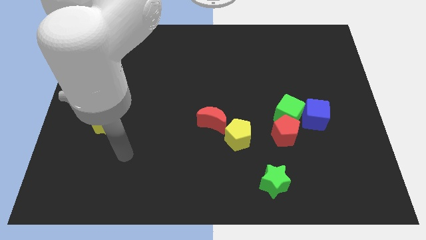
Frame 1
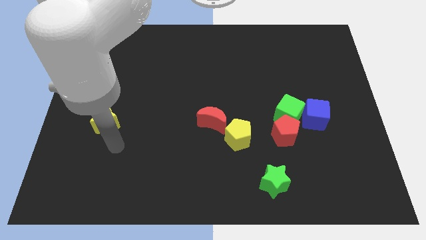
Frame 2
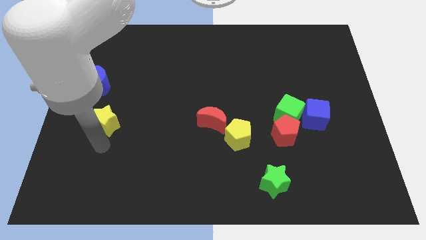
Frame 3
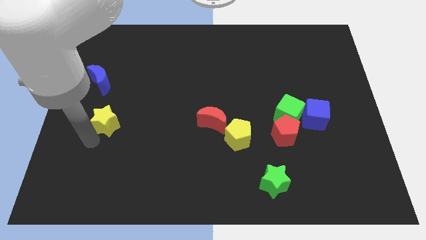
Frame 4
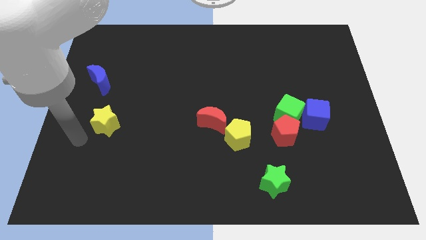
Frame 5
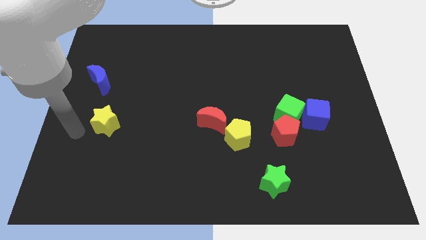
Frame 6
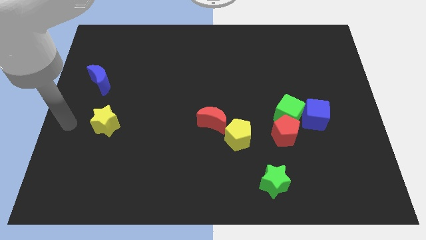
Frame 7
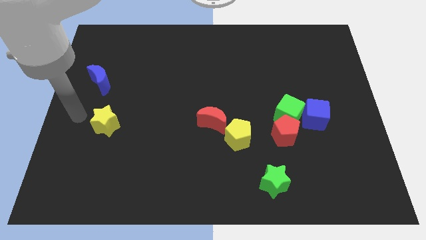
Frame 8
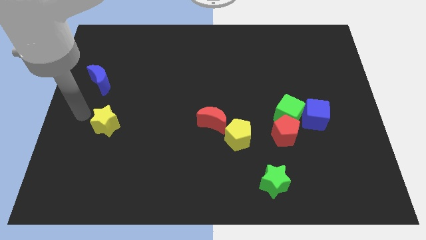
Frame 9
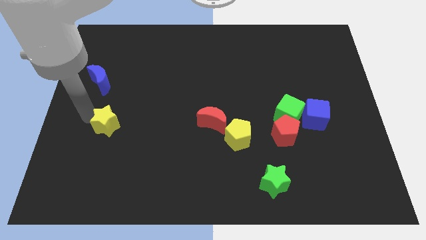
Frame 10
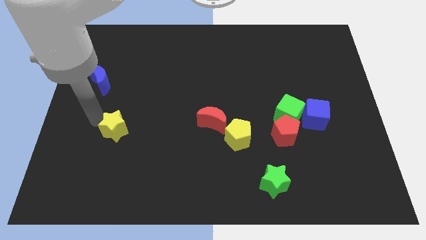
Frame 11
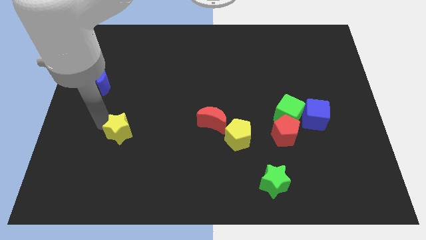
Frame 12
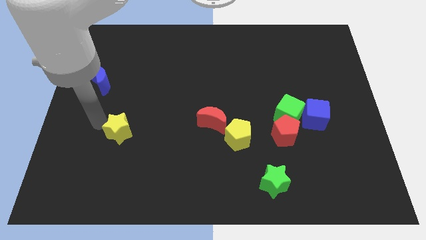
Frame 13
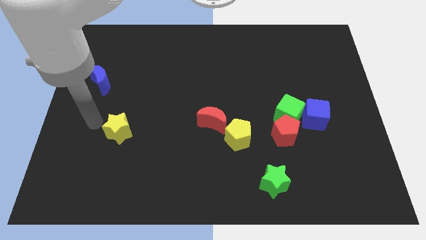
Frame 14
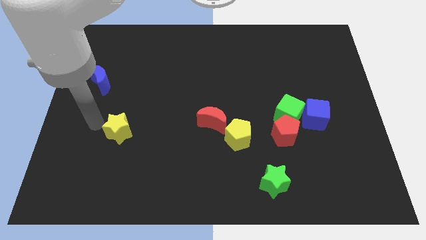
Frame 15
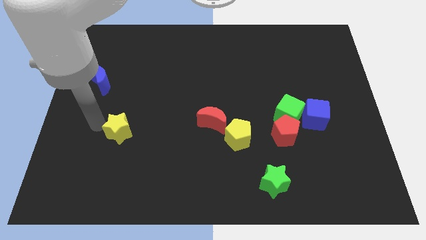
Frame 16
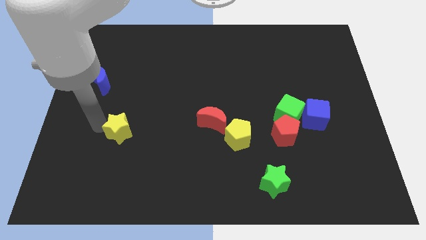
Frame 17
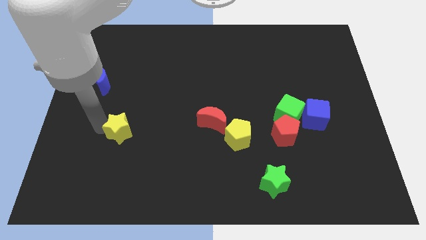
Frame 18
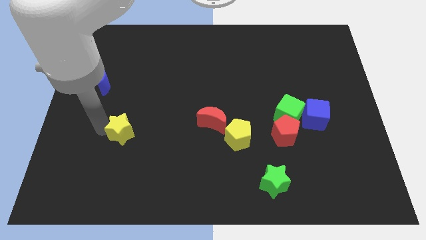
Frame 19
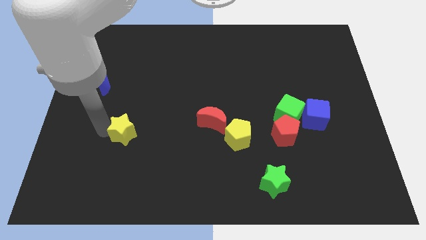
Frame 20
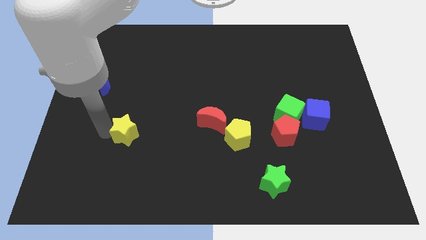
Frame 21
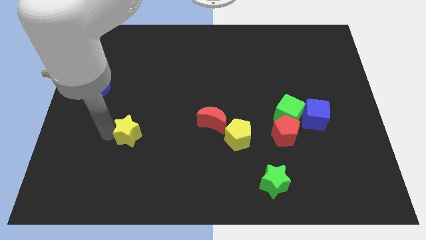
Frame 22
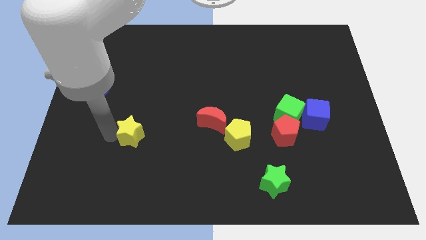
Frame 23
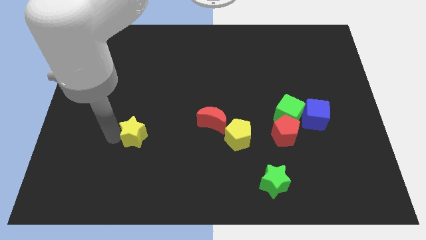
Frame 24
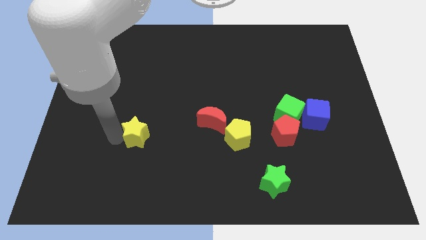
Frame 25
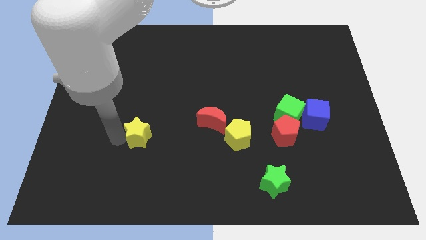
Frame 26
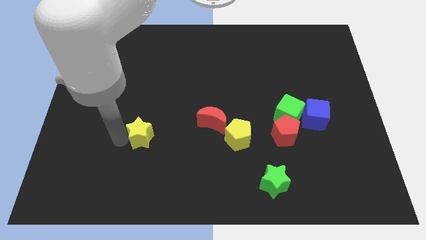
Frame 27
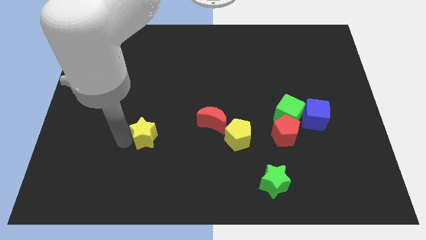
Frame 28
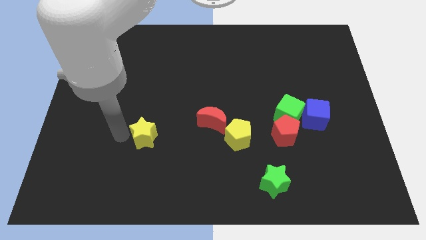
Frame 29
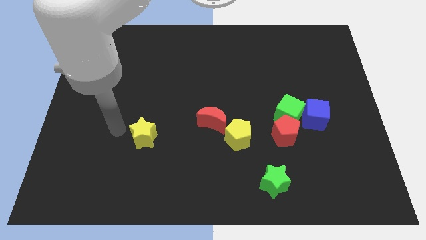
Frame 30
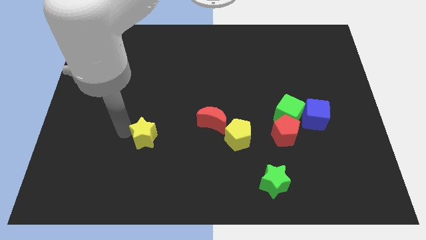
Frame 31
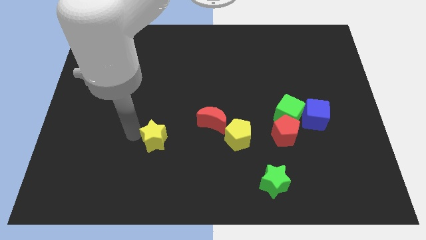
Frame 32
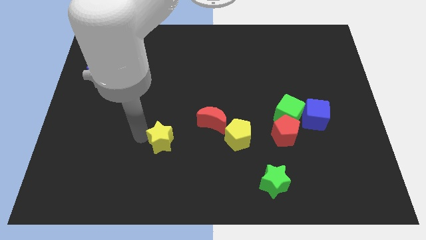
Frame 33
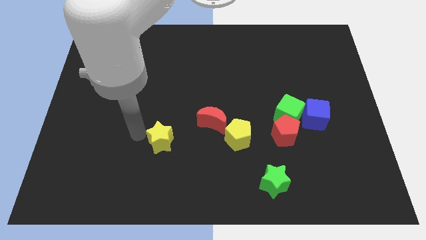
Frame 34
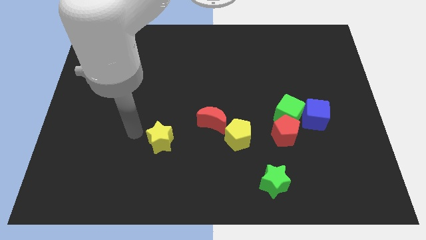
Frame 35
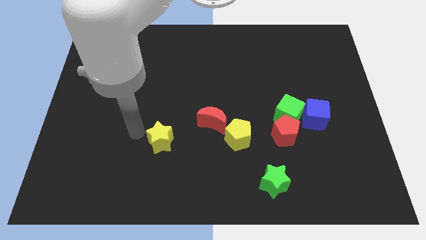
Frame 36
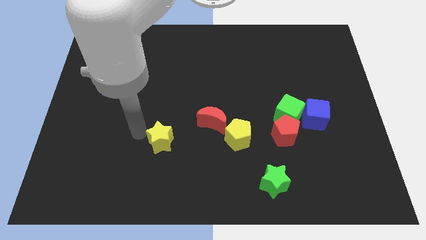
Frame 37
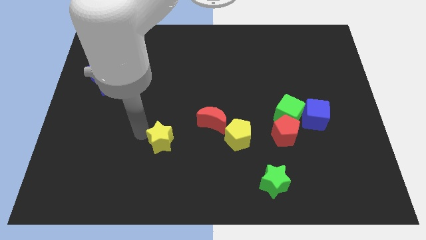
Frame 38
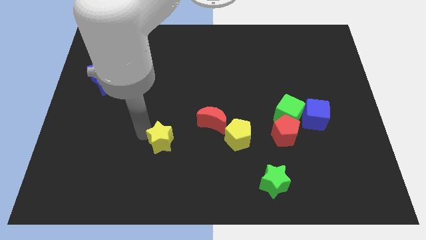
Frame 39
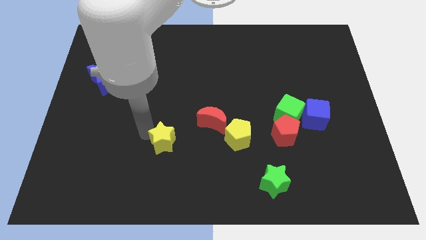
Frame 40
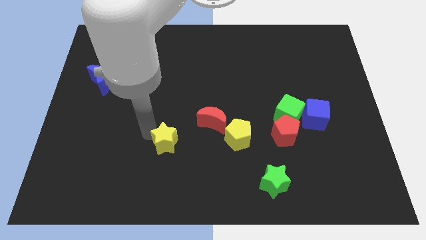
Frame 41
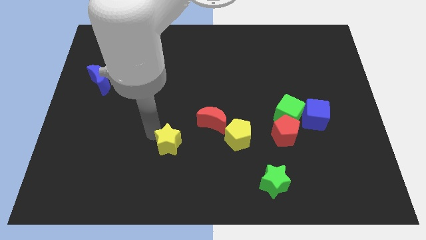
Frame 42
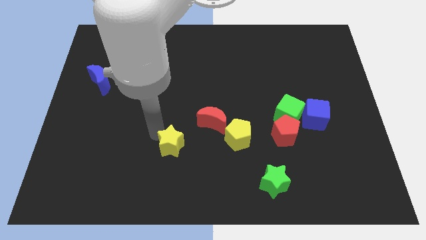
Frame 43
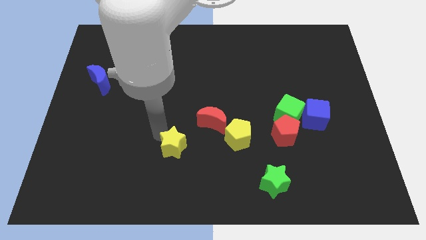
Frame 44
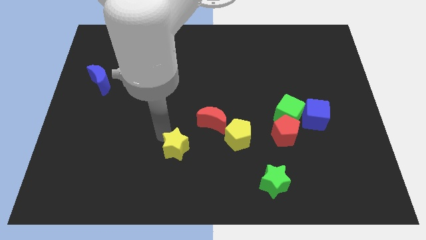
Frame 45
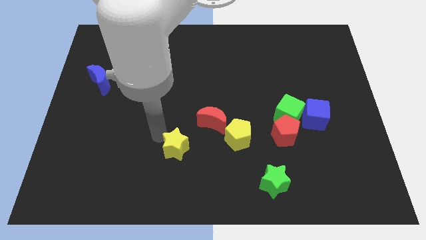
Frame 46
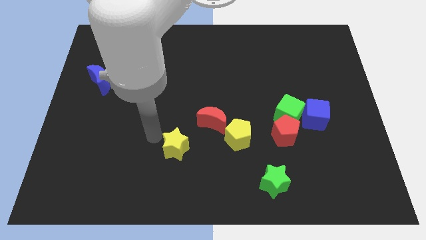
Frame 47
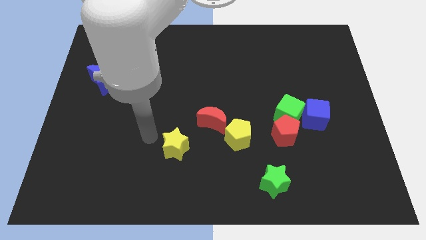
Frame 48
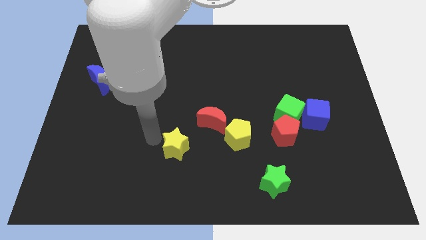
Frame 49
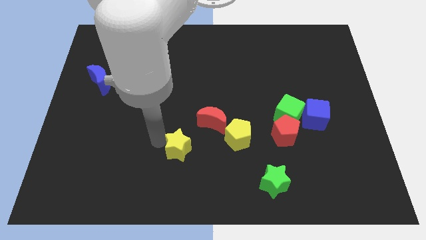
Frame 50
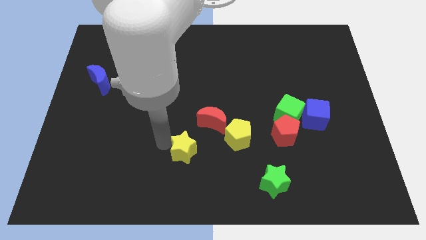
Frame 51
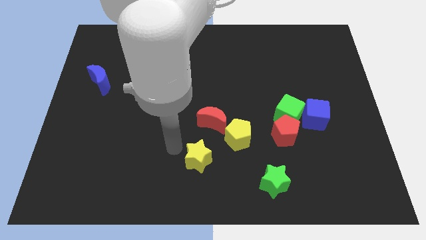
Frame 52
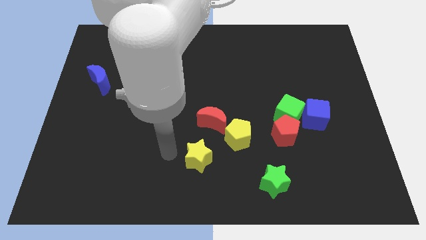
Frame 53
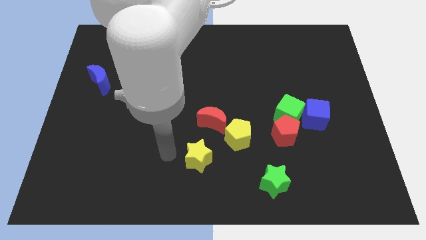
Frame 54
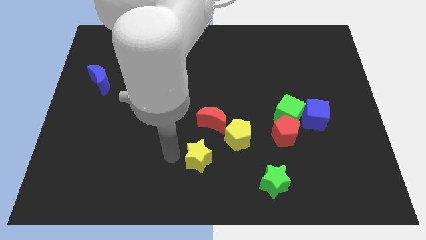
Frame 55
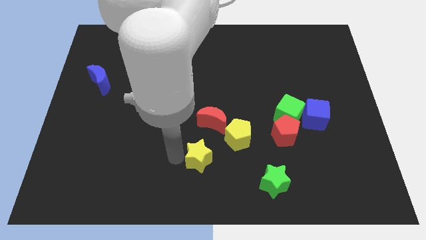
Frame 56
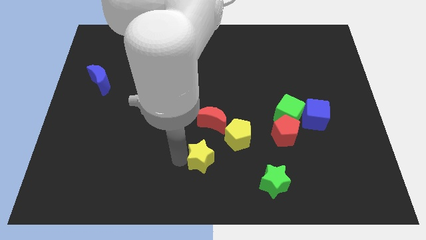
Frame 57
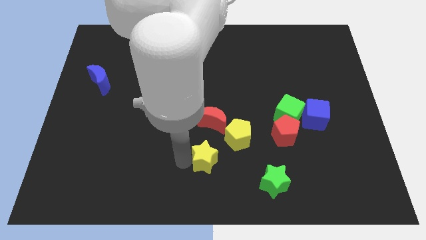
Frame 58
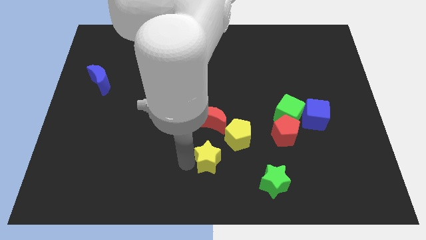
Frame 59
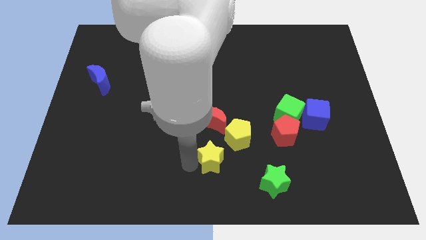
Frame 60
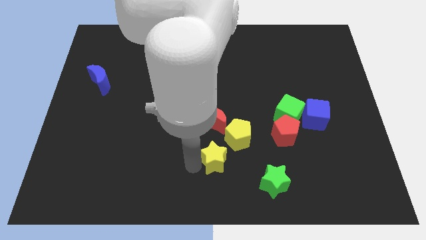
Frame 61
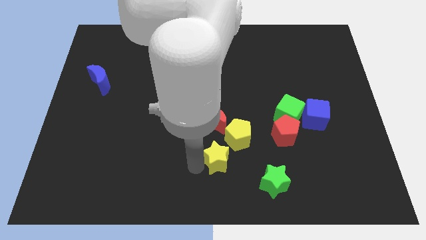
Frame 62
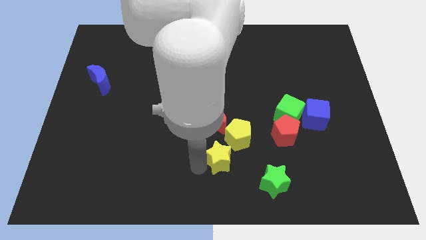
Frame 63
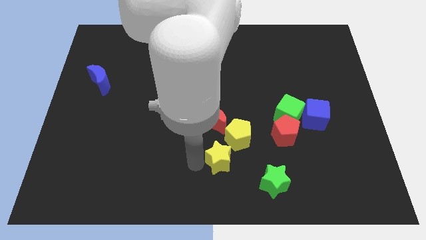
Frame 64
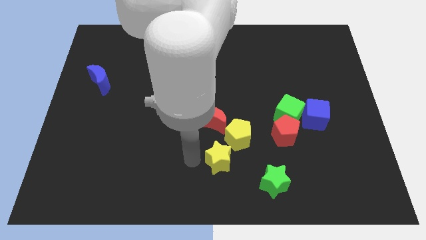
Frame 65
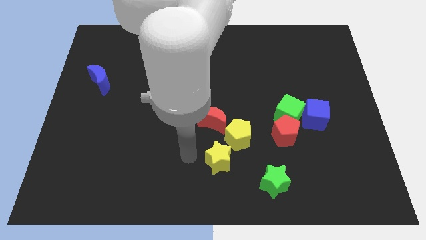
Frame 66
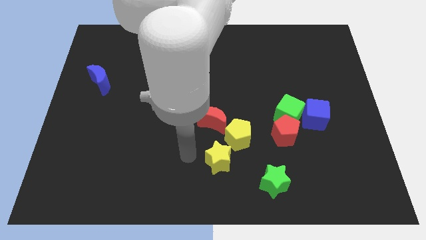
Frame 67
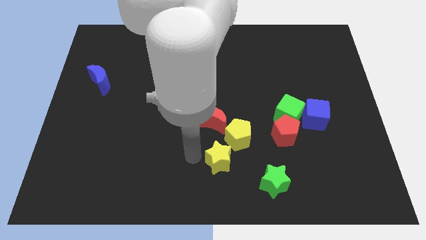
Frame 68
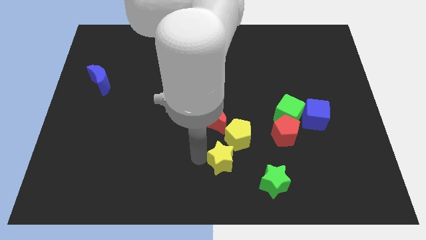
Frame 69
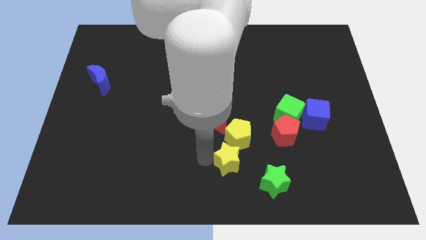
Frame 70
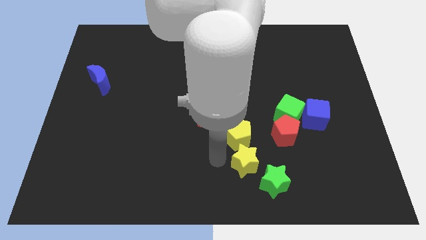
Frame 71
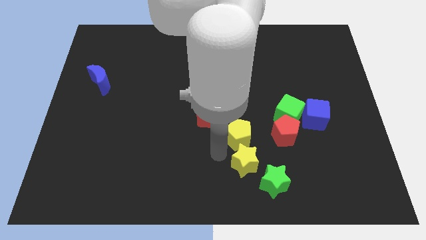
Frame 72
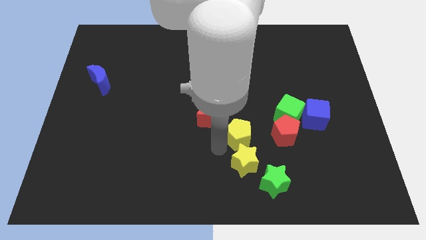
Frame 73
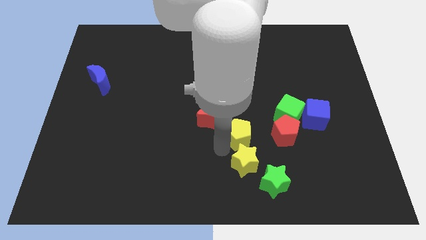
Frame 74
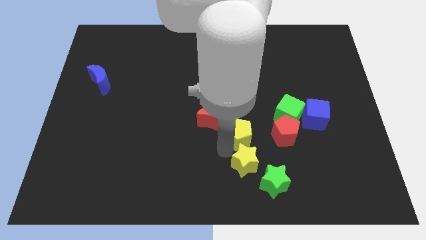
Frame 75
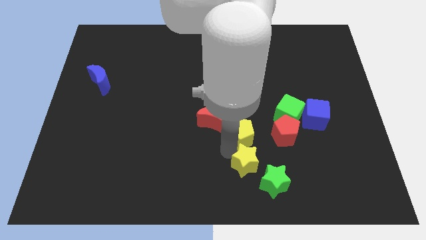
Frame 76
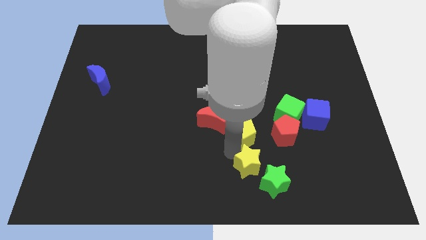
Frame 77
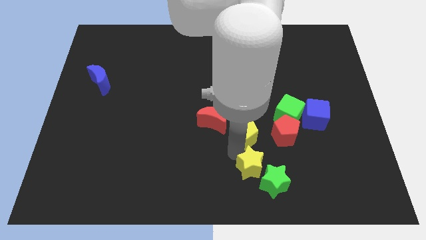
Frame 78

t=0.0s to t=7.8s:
push the yellow star next to the green star
